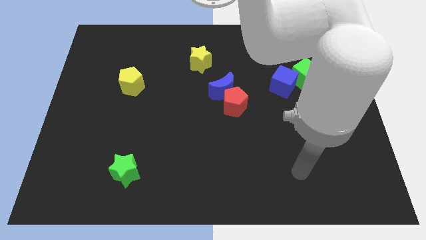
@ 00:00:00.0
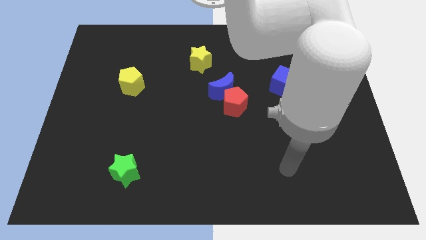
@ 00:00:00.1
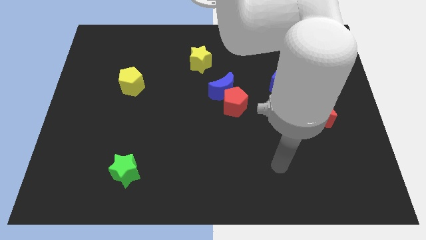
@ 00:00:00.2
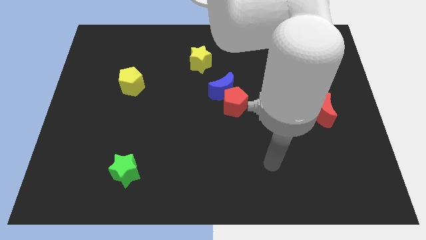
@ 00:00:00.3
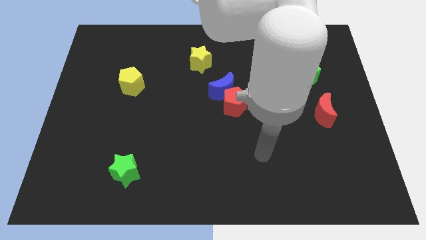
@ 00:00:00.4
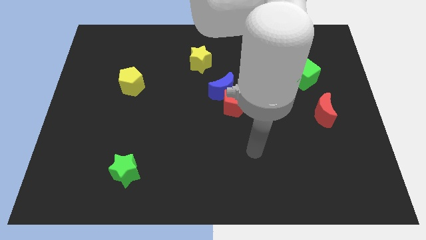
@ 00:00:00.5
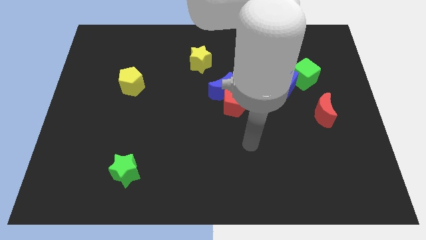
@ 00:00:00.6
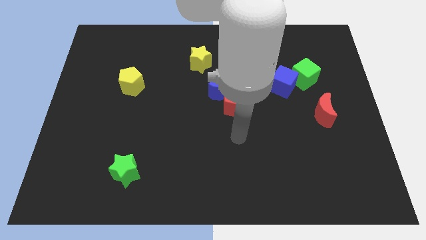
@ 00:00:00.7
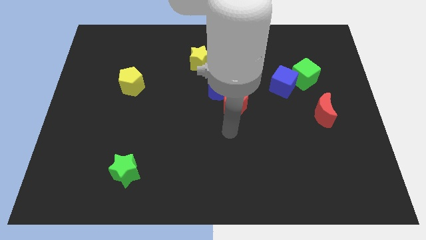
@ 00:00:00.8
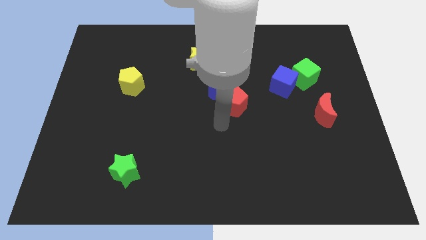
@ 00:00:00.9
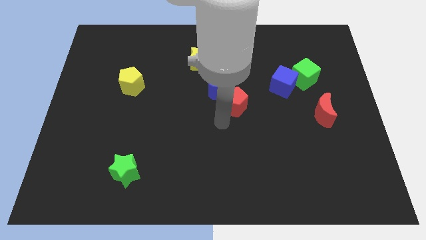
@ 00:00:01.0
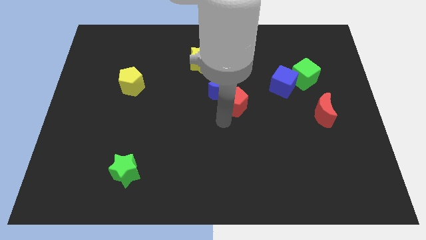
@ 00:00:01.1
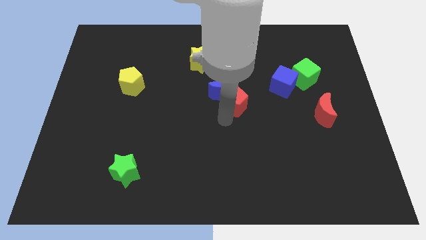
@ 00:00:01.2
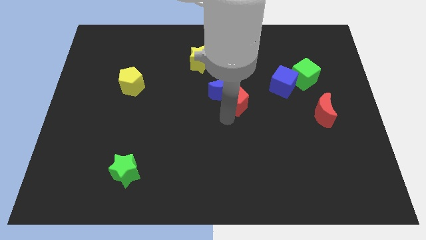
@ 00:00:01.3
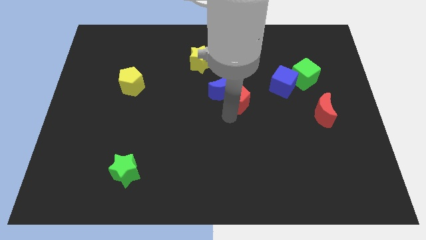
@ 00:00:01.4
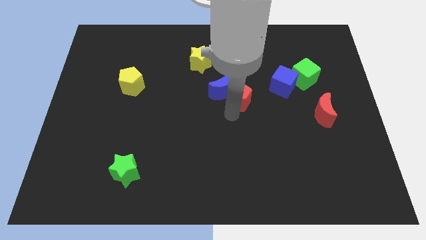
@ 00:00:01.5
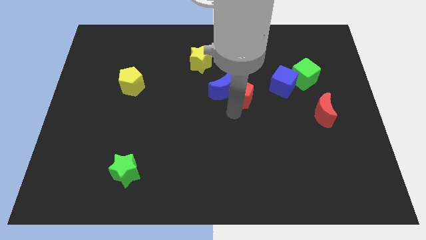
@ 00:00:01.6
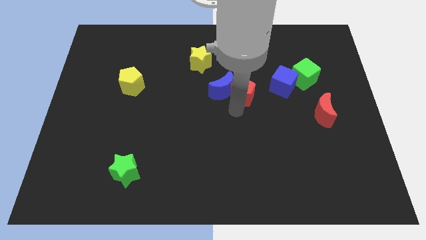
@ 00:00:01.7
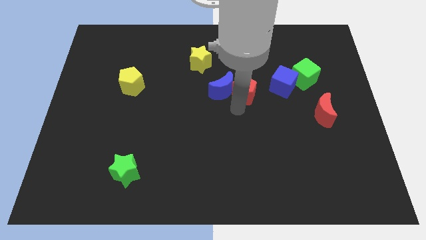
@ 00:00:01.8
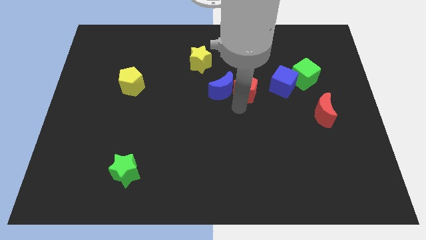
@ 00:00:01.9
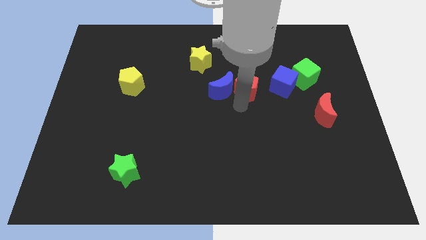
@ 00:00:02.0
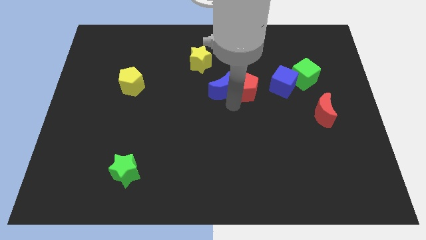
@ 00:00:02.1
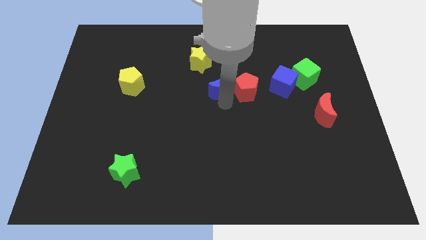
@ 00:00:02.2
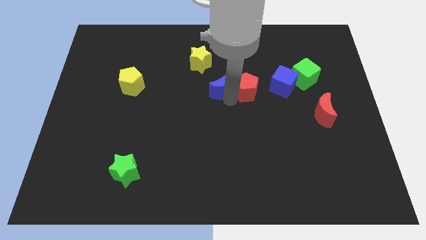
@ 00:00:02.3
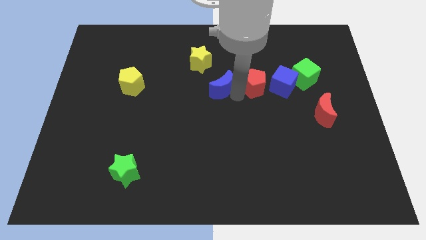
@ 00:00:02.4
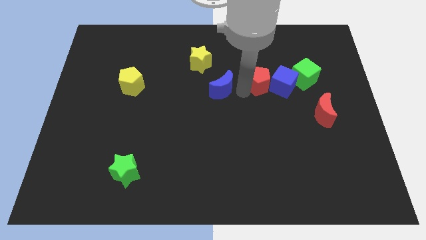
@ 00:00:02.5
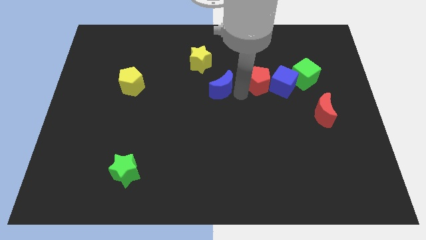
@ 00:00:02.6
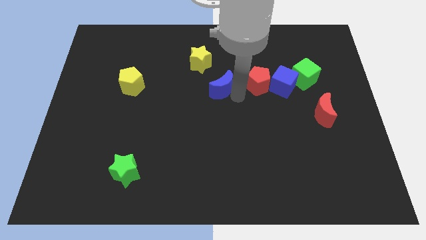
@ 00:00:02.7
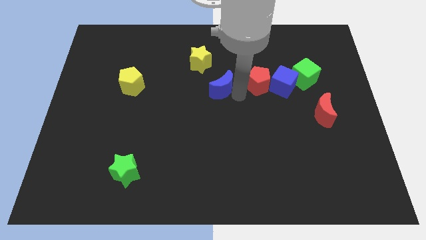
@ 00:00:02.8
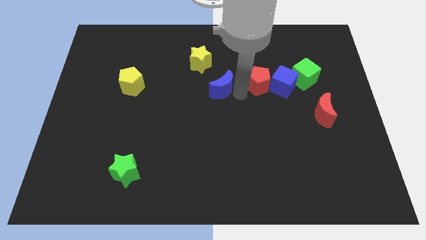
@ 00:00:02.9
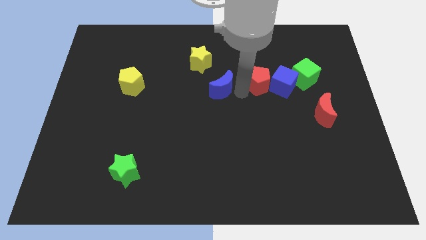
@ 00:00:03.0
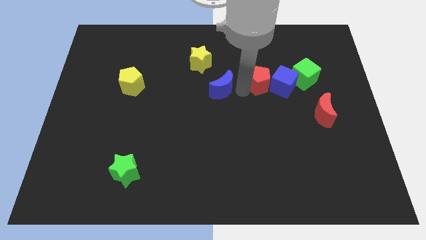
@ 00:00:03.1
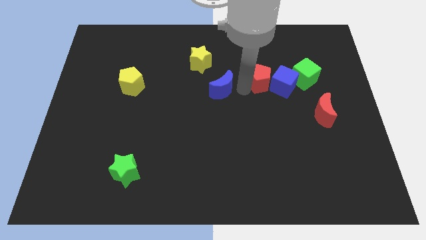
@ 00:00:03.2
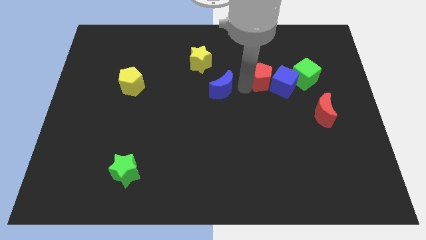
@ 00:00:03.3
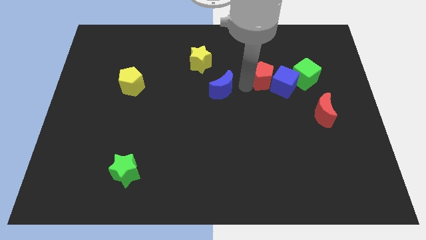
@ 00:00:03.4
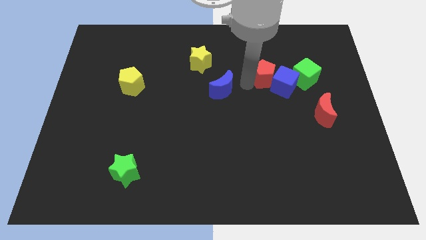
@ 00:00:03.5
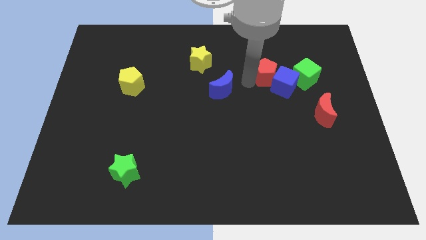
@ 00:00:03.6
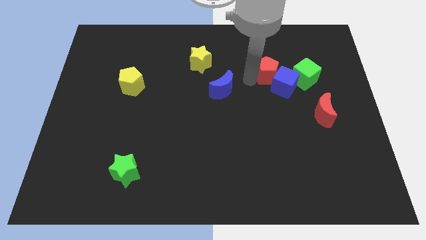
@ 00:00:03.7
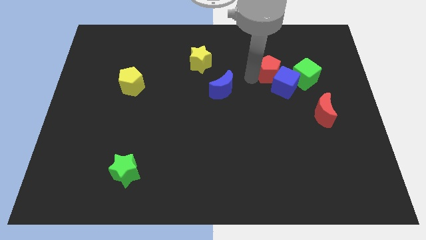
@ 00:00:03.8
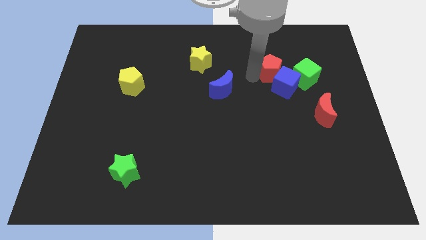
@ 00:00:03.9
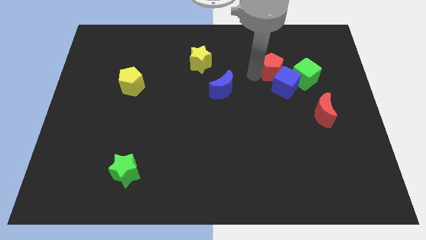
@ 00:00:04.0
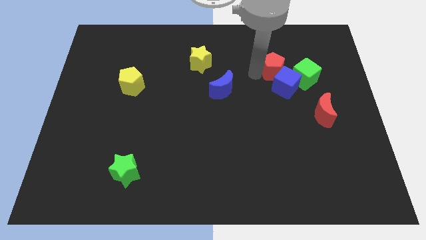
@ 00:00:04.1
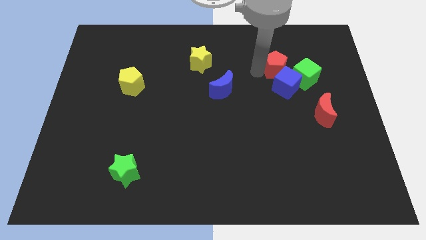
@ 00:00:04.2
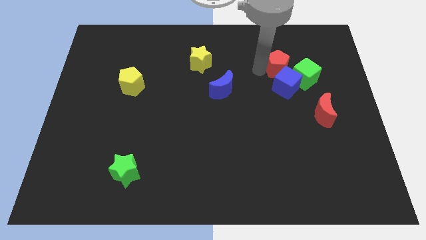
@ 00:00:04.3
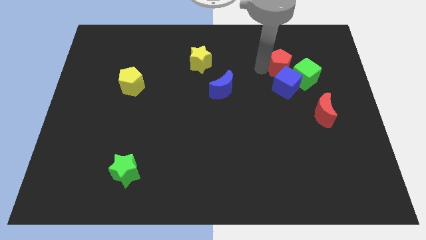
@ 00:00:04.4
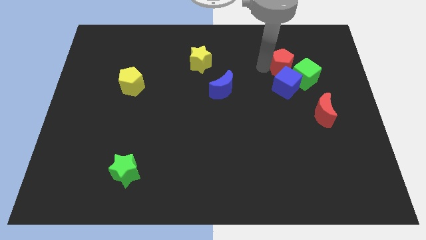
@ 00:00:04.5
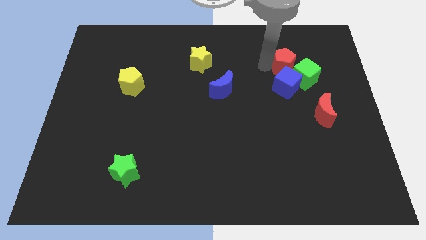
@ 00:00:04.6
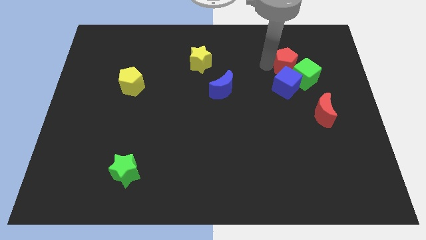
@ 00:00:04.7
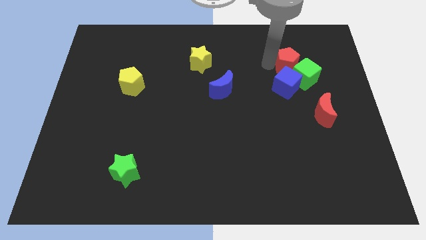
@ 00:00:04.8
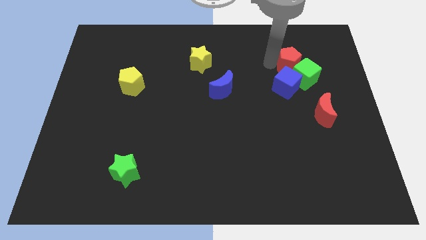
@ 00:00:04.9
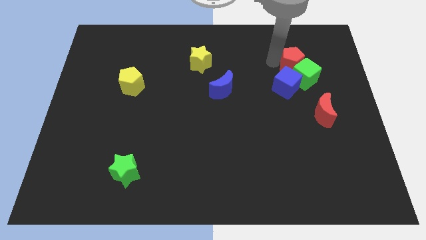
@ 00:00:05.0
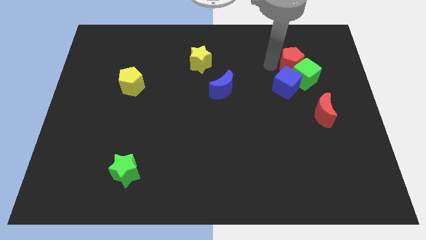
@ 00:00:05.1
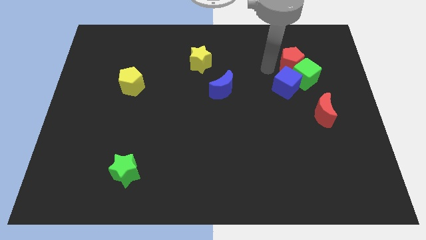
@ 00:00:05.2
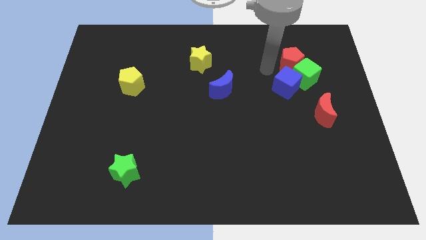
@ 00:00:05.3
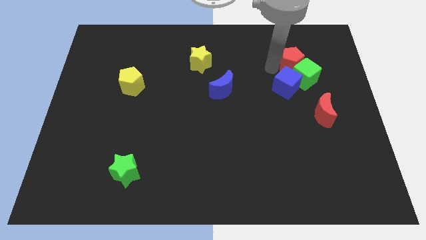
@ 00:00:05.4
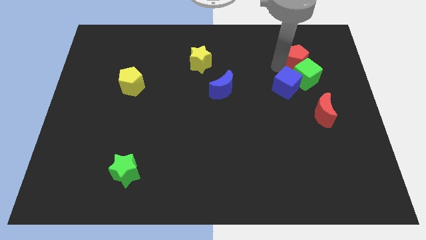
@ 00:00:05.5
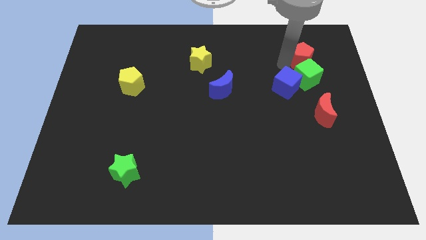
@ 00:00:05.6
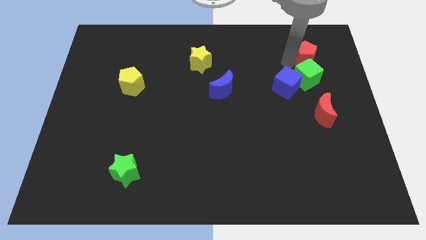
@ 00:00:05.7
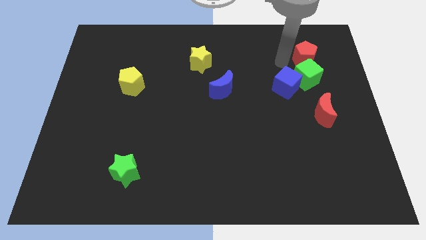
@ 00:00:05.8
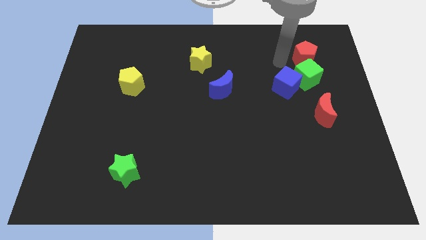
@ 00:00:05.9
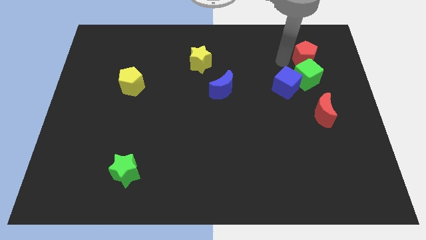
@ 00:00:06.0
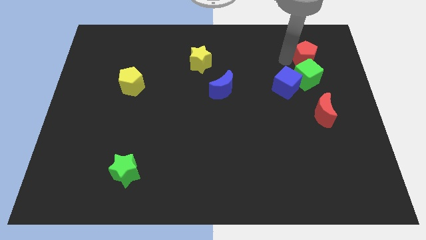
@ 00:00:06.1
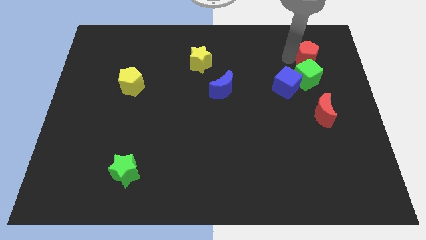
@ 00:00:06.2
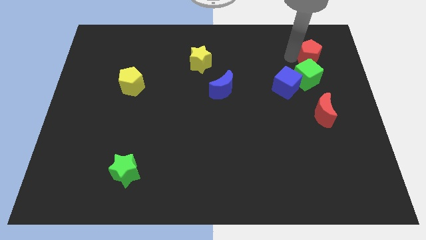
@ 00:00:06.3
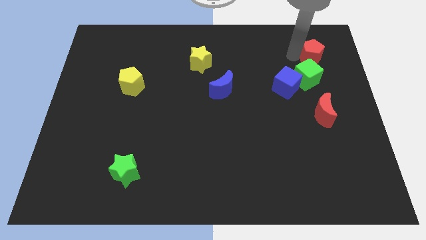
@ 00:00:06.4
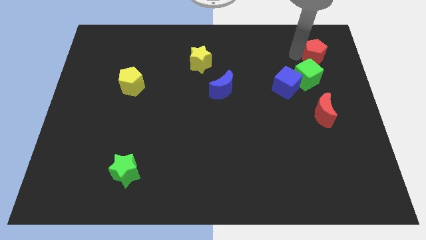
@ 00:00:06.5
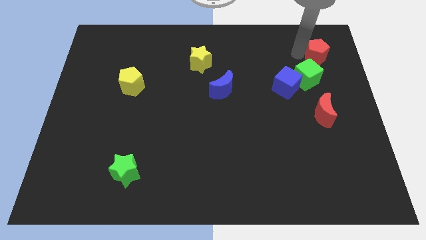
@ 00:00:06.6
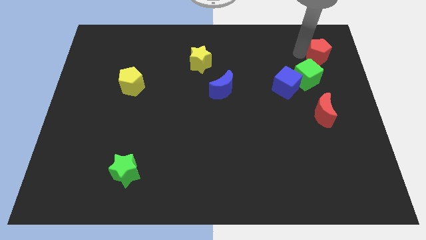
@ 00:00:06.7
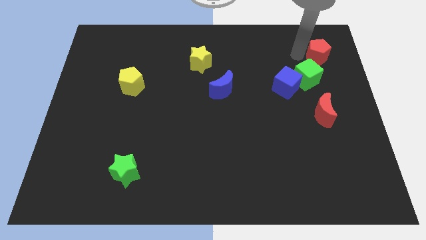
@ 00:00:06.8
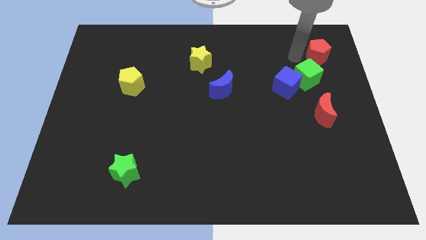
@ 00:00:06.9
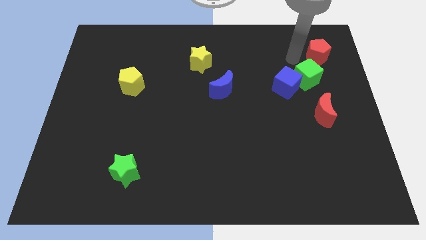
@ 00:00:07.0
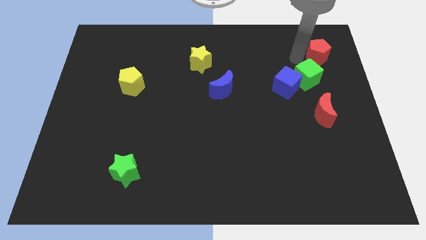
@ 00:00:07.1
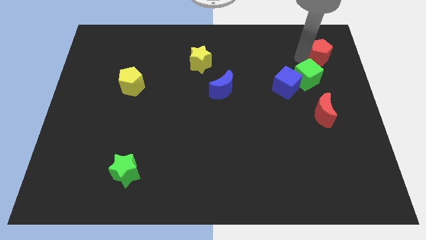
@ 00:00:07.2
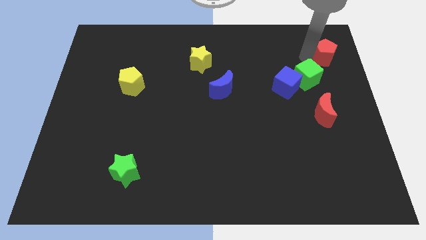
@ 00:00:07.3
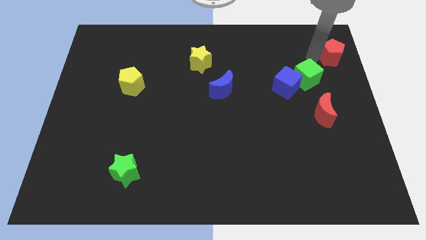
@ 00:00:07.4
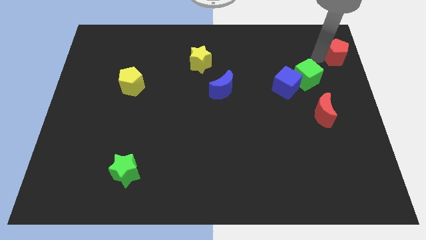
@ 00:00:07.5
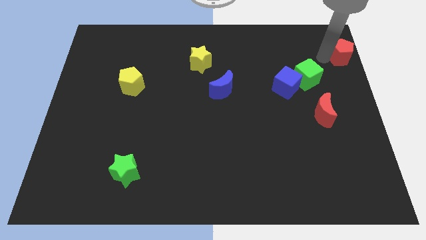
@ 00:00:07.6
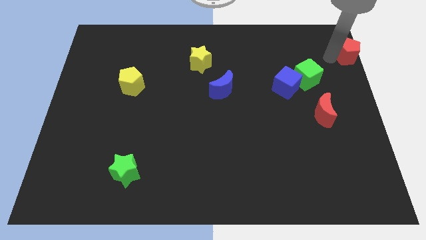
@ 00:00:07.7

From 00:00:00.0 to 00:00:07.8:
push the red pentagon to the upper right corner
